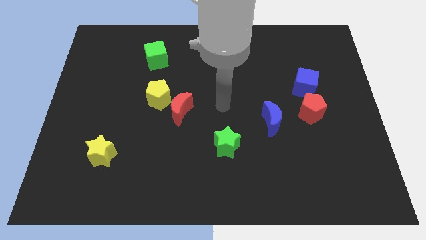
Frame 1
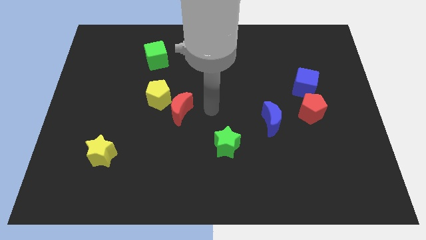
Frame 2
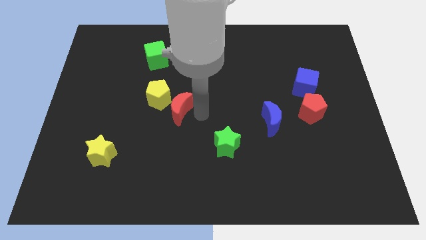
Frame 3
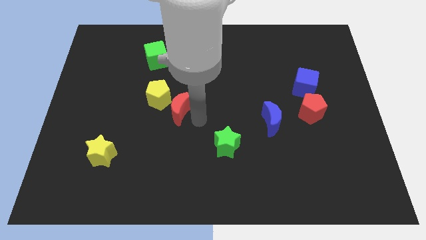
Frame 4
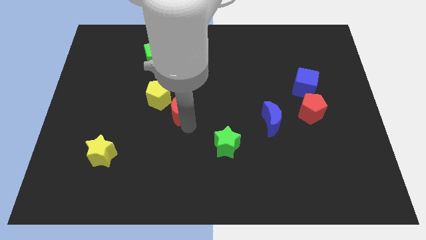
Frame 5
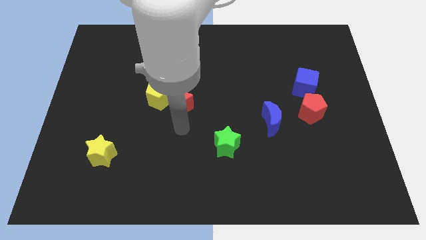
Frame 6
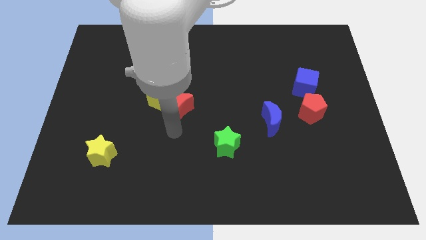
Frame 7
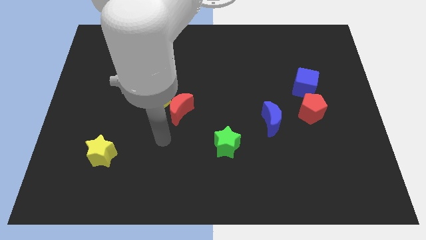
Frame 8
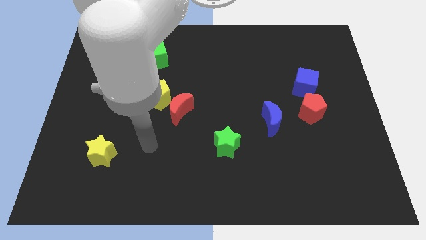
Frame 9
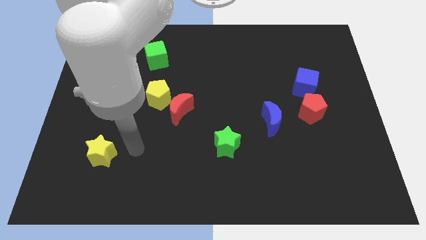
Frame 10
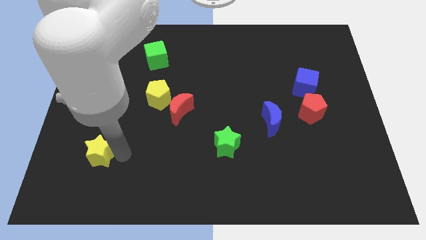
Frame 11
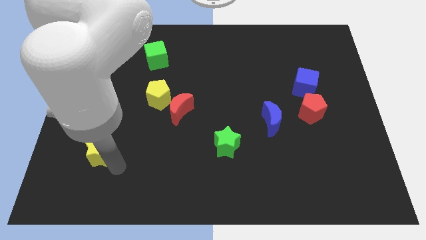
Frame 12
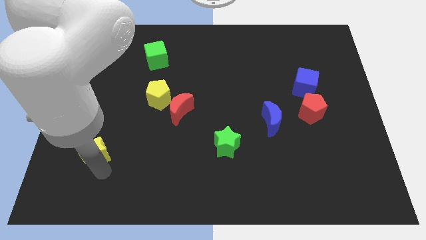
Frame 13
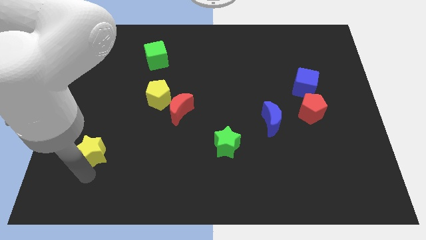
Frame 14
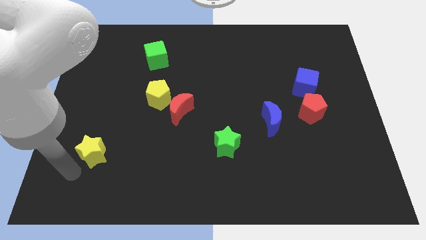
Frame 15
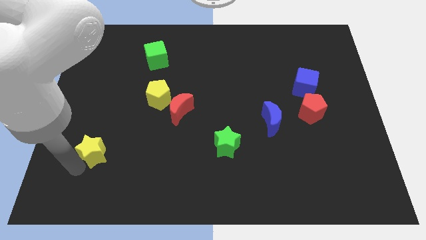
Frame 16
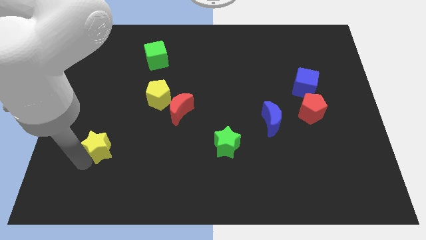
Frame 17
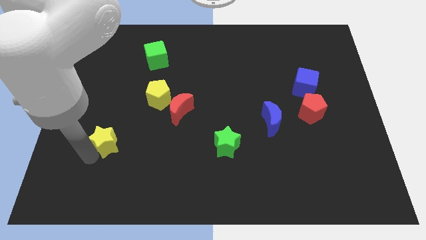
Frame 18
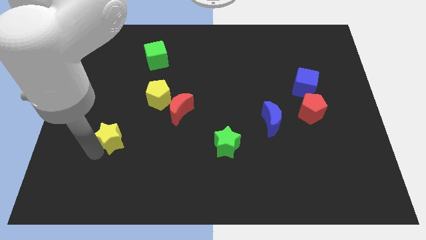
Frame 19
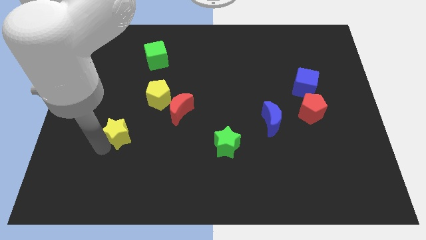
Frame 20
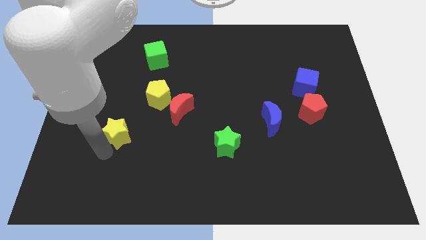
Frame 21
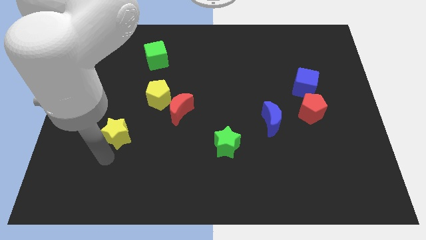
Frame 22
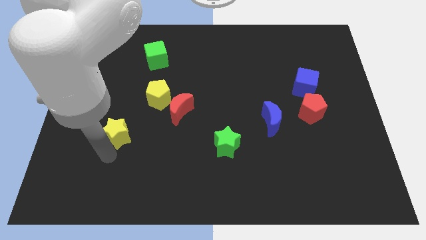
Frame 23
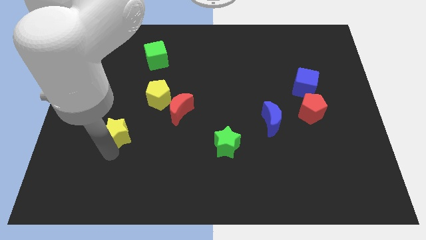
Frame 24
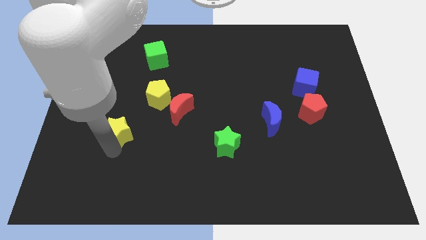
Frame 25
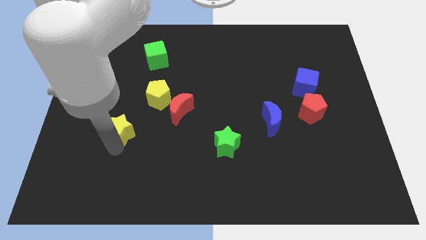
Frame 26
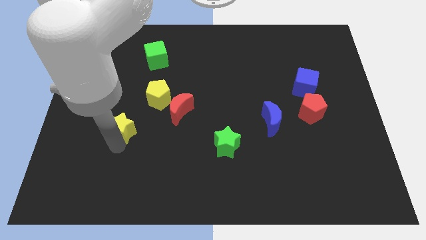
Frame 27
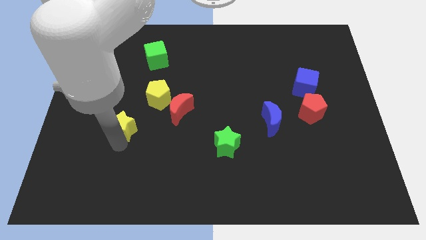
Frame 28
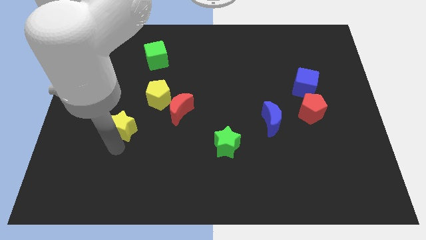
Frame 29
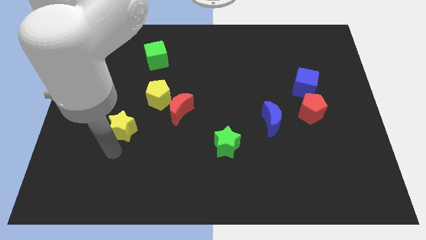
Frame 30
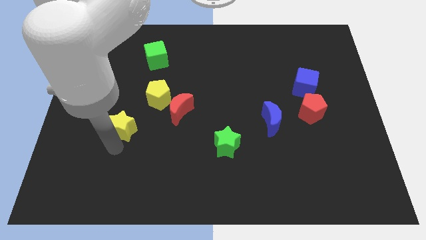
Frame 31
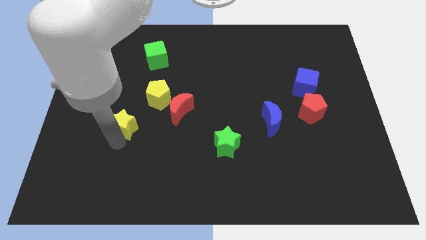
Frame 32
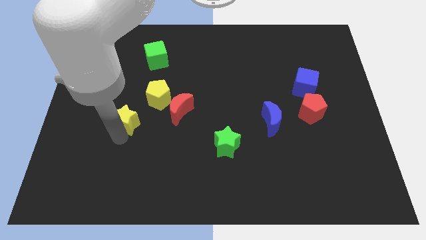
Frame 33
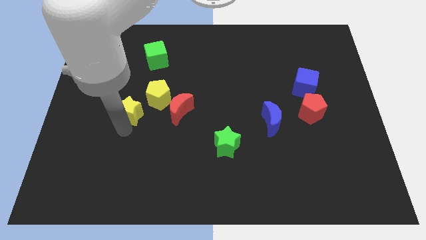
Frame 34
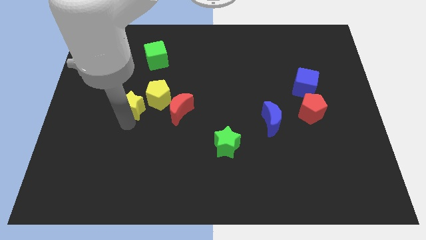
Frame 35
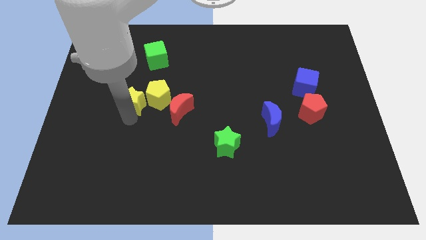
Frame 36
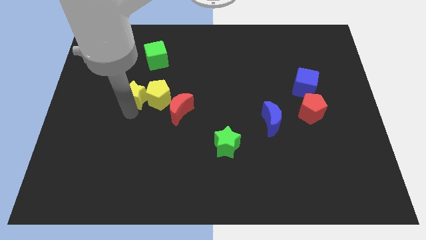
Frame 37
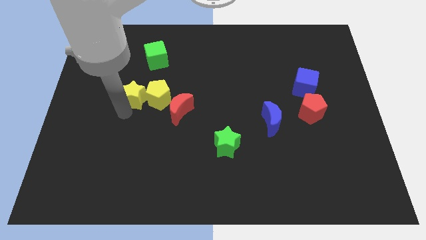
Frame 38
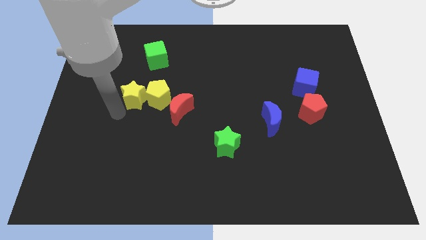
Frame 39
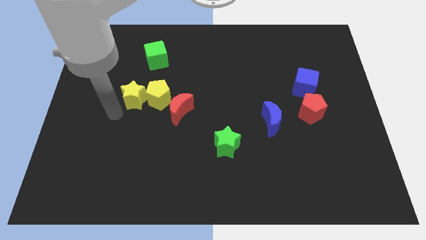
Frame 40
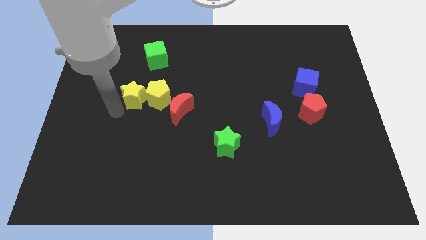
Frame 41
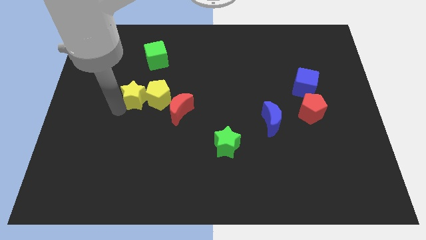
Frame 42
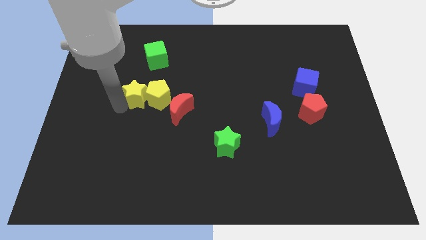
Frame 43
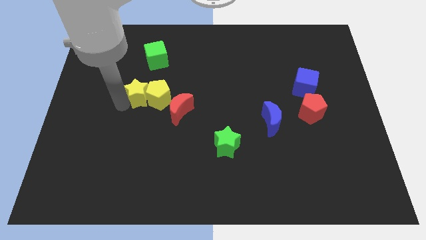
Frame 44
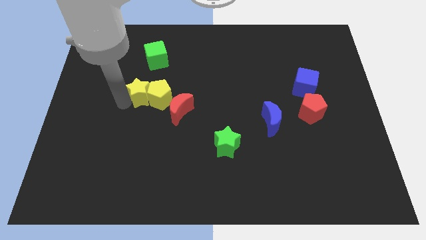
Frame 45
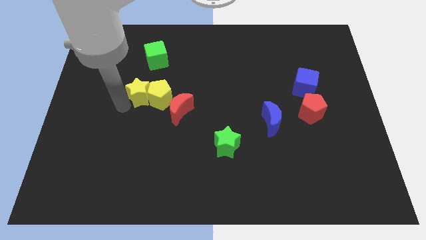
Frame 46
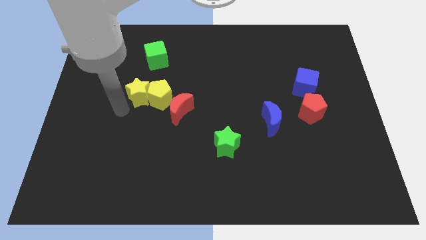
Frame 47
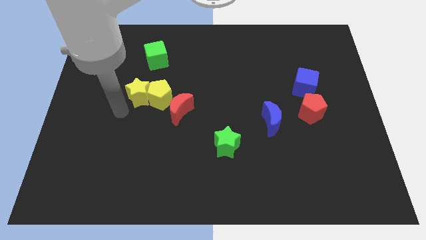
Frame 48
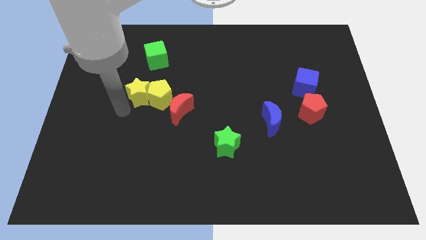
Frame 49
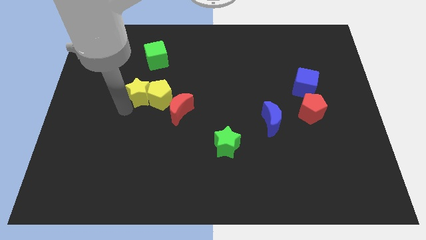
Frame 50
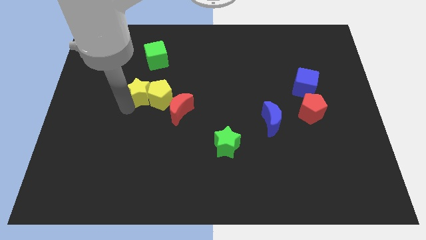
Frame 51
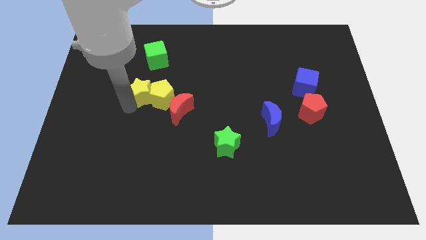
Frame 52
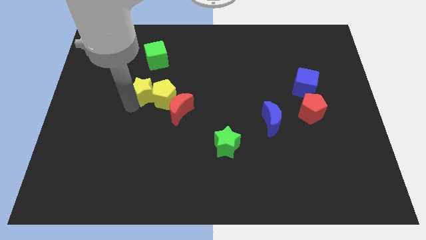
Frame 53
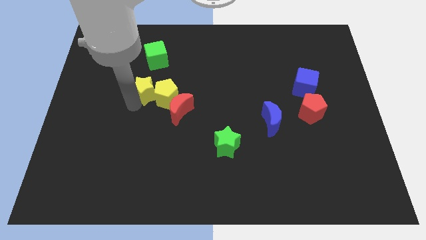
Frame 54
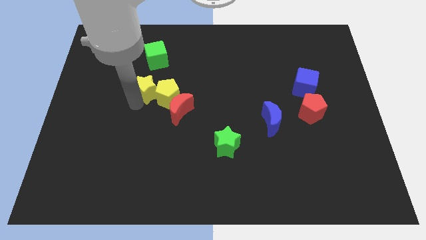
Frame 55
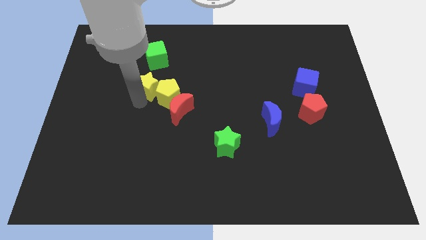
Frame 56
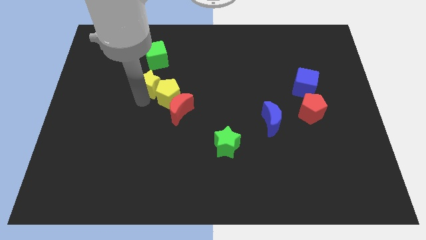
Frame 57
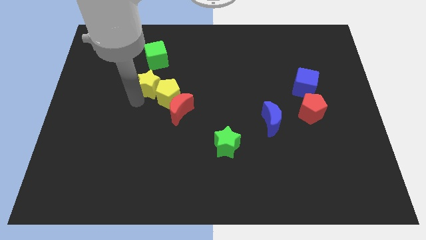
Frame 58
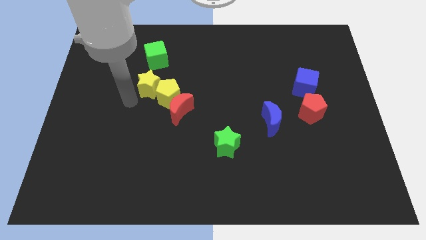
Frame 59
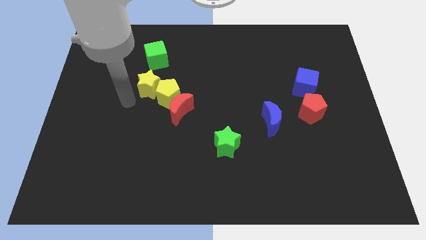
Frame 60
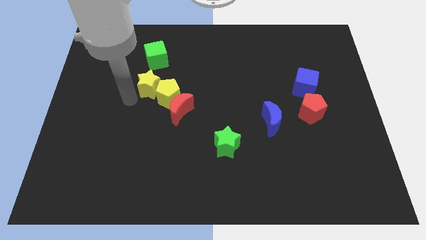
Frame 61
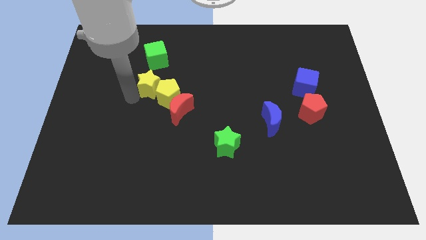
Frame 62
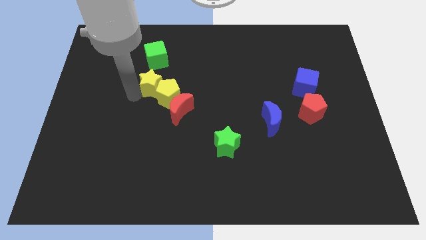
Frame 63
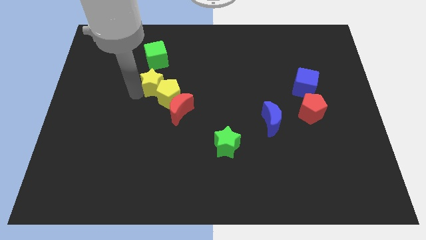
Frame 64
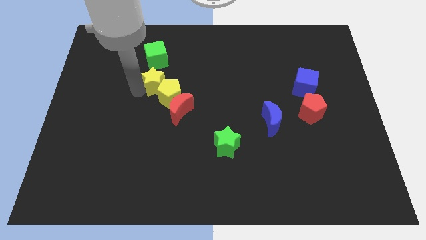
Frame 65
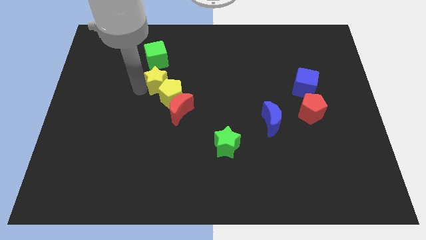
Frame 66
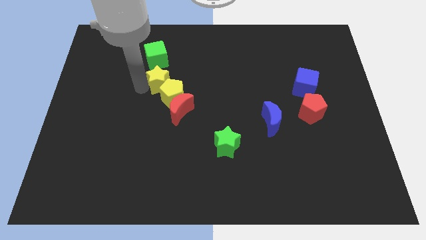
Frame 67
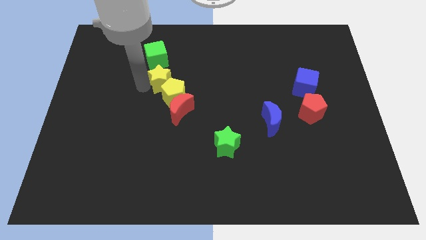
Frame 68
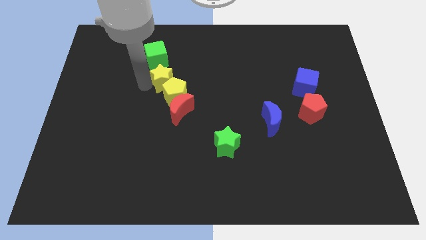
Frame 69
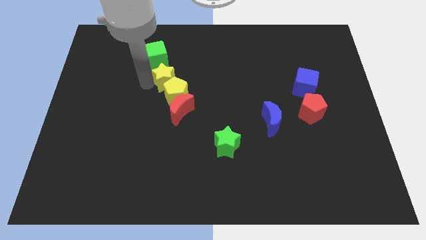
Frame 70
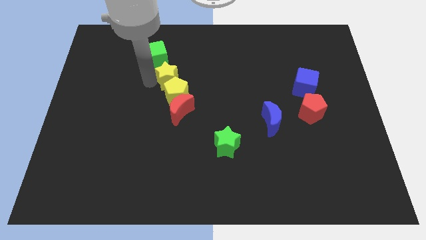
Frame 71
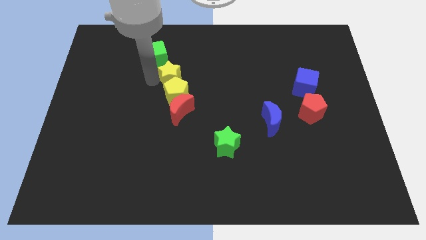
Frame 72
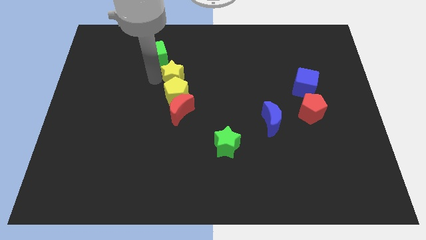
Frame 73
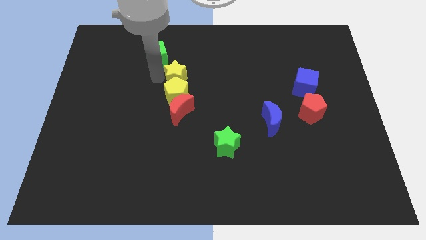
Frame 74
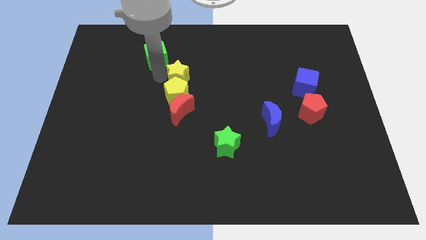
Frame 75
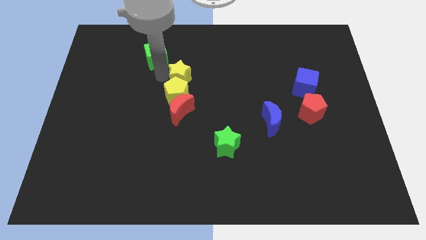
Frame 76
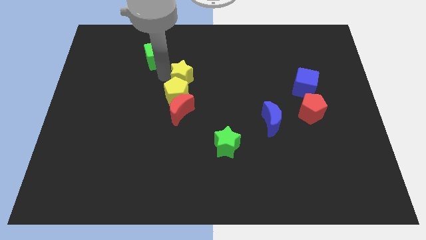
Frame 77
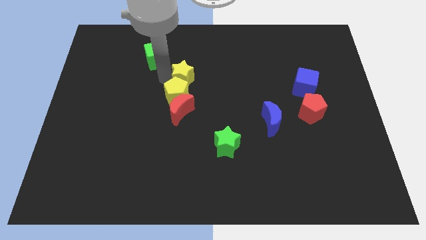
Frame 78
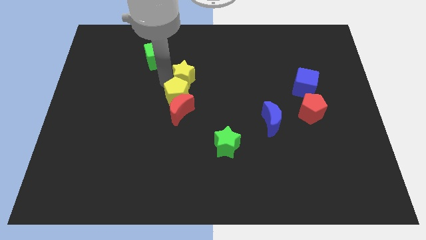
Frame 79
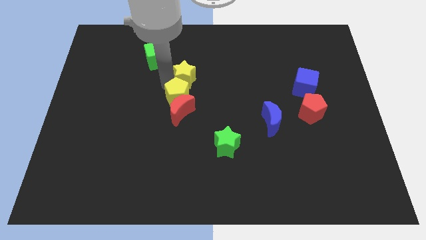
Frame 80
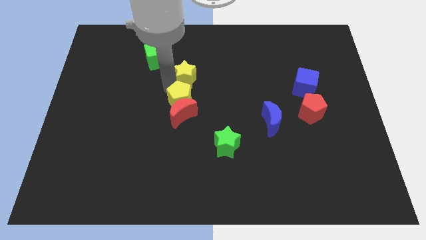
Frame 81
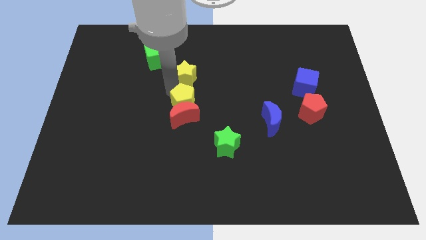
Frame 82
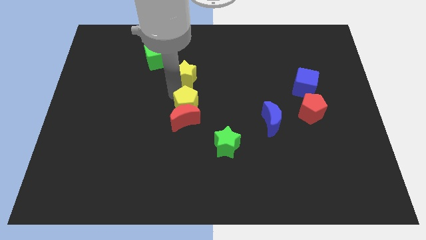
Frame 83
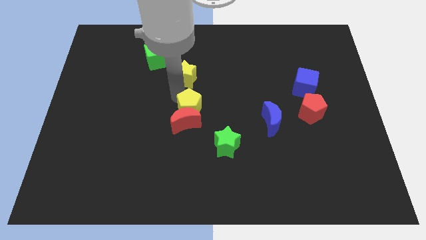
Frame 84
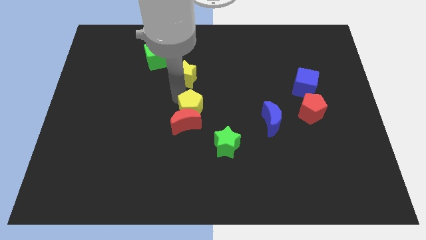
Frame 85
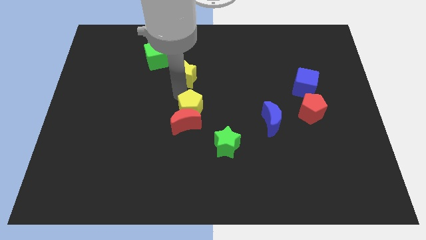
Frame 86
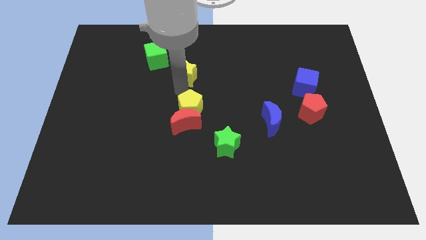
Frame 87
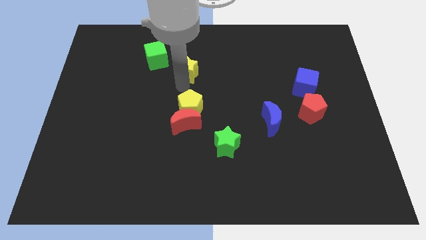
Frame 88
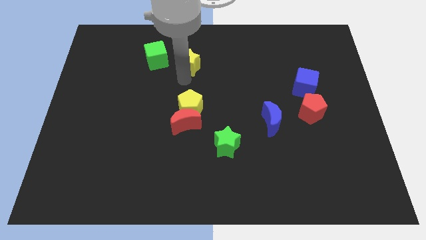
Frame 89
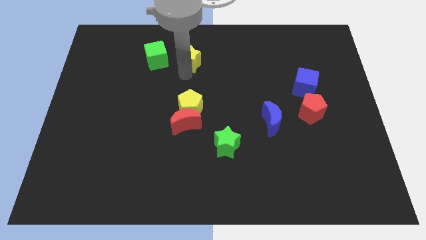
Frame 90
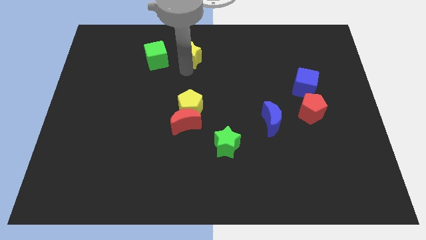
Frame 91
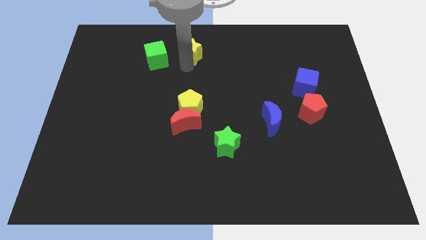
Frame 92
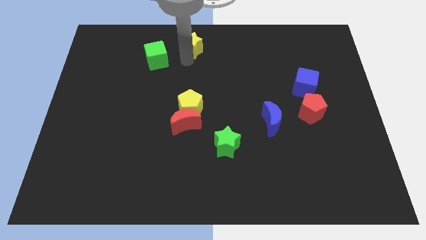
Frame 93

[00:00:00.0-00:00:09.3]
slide the yellow star to the top
